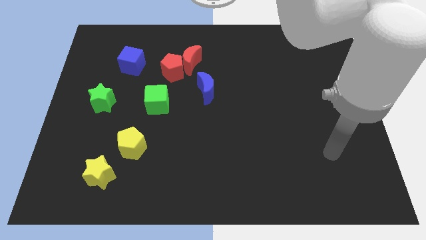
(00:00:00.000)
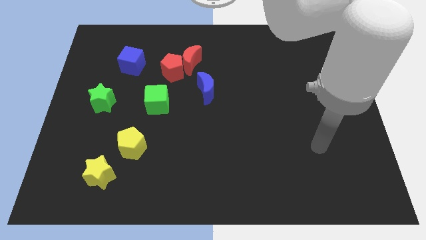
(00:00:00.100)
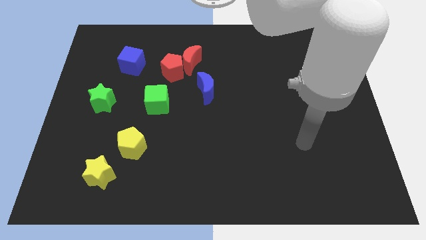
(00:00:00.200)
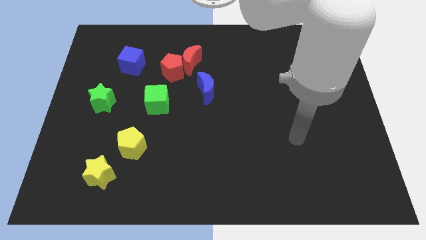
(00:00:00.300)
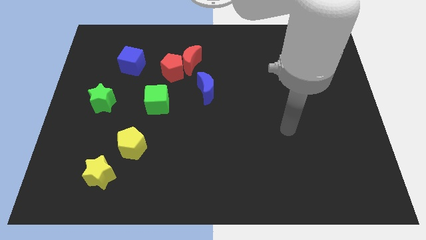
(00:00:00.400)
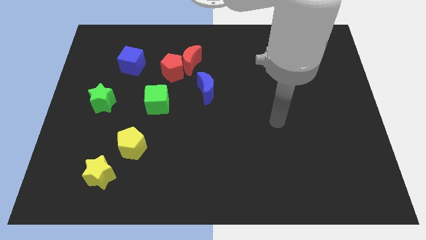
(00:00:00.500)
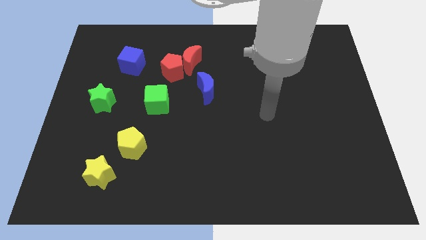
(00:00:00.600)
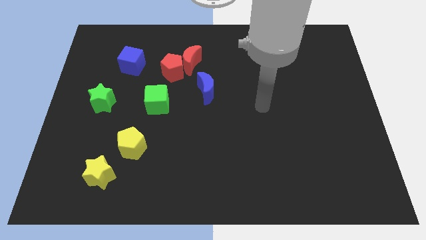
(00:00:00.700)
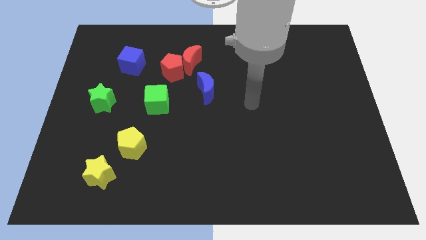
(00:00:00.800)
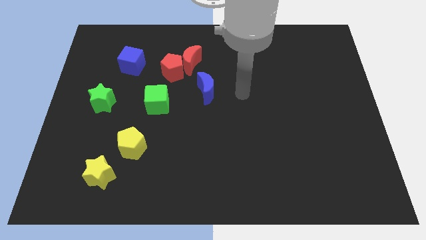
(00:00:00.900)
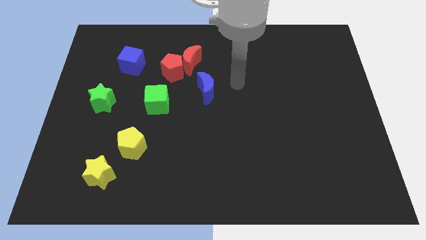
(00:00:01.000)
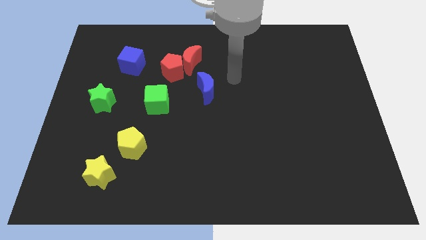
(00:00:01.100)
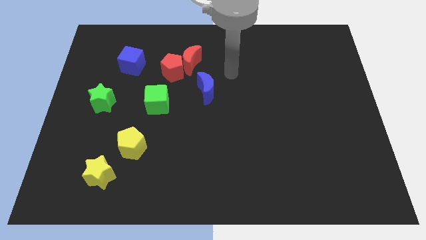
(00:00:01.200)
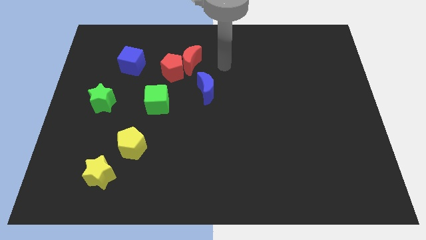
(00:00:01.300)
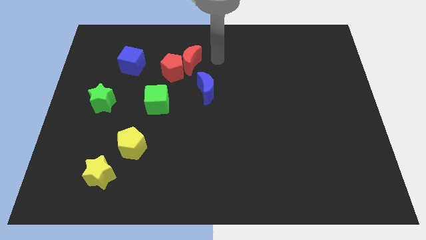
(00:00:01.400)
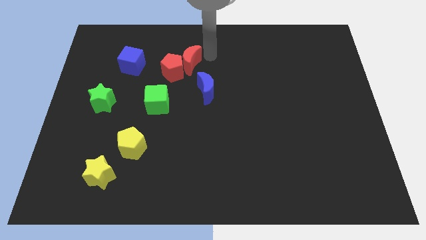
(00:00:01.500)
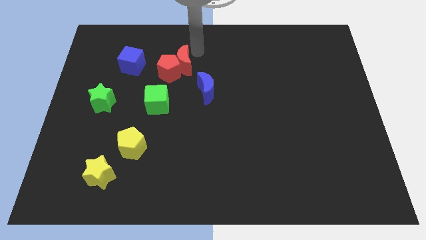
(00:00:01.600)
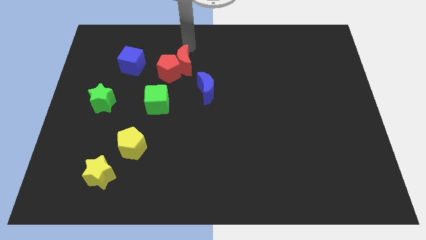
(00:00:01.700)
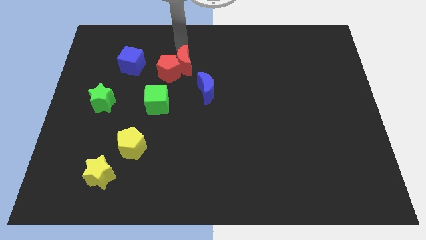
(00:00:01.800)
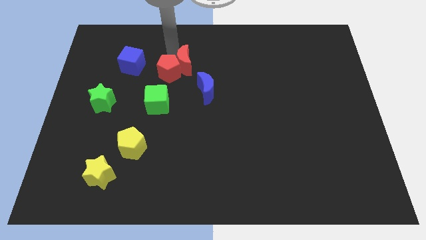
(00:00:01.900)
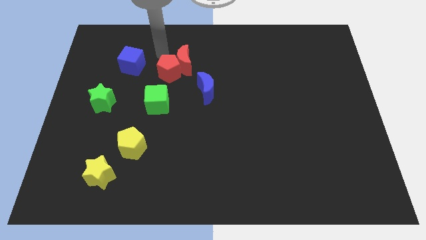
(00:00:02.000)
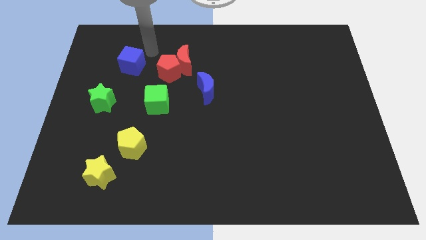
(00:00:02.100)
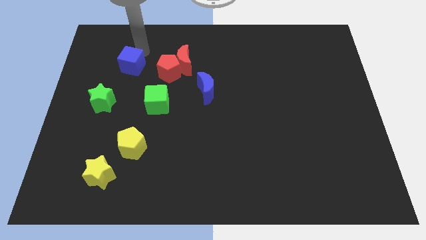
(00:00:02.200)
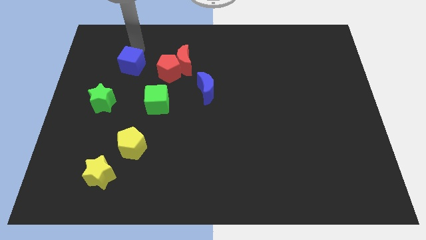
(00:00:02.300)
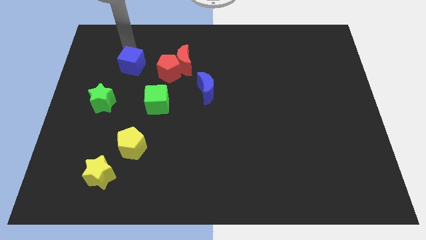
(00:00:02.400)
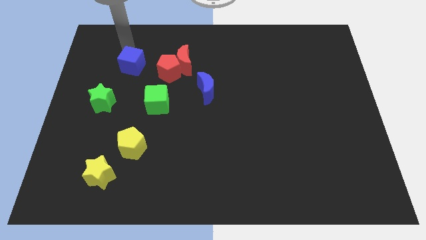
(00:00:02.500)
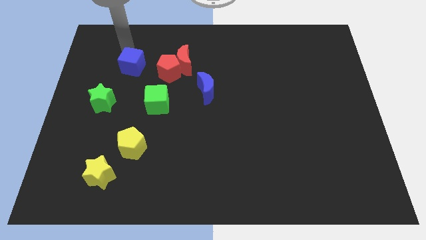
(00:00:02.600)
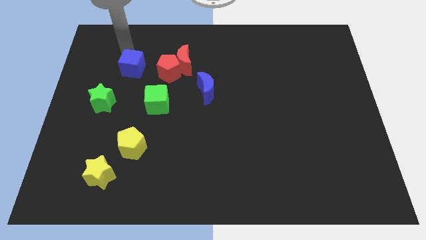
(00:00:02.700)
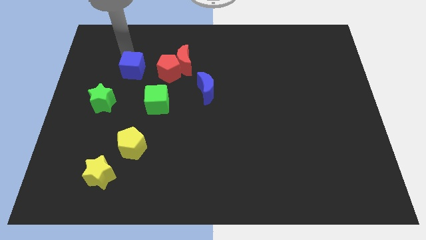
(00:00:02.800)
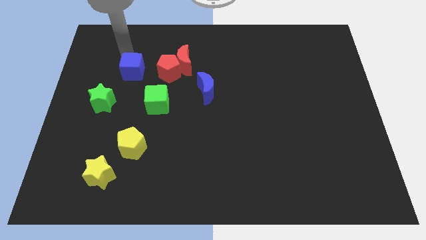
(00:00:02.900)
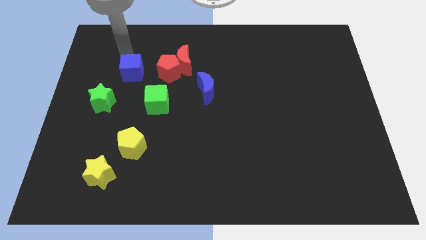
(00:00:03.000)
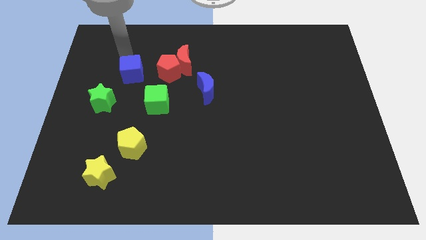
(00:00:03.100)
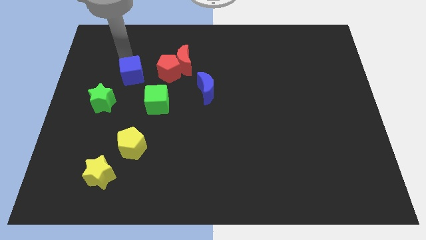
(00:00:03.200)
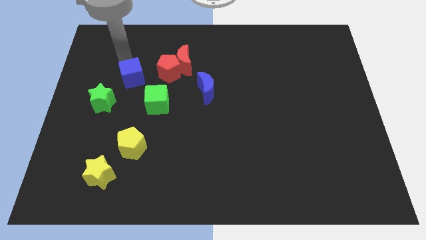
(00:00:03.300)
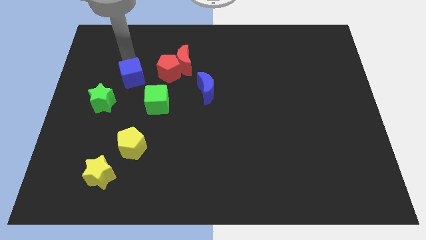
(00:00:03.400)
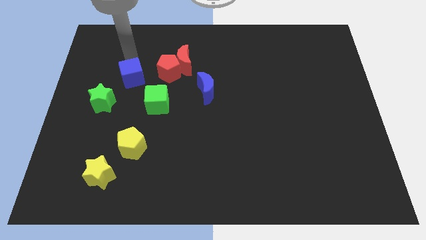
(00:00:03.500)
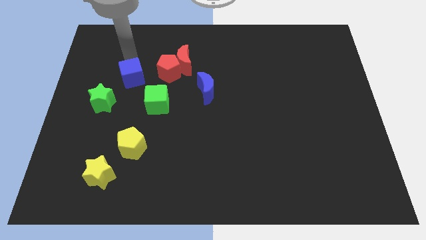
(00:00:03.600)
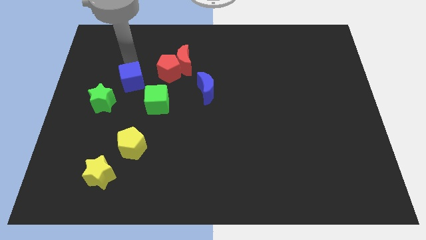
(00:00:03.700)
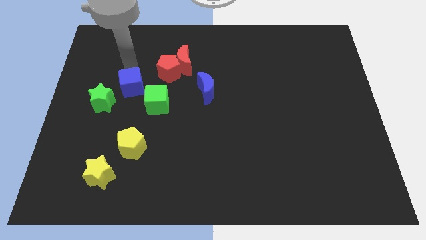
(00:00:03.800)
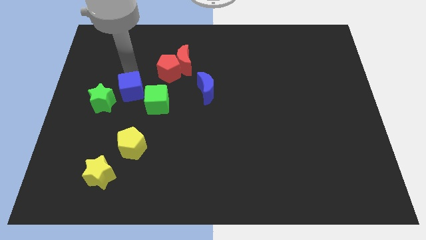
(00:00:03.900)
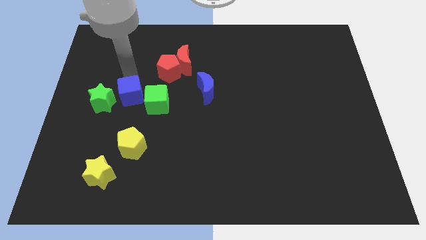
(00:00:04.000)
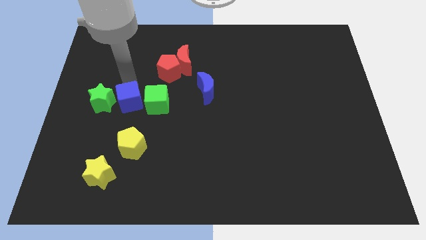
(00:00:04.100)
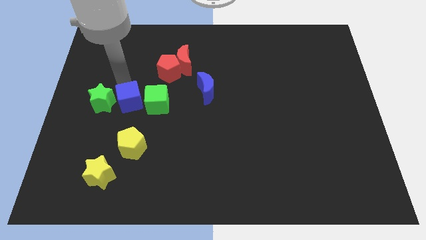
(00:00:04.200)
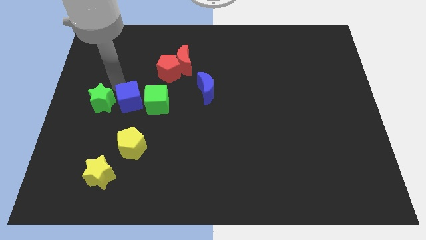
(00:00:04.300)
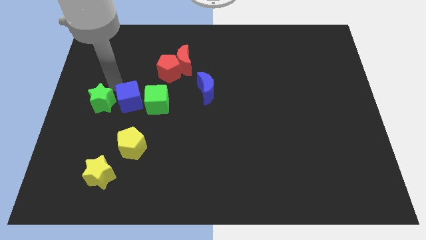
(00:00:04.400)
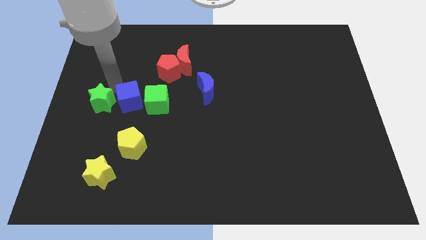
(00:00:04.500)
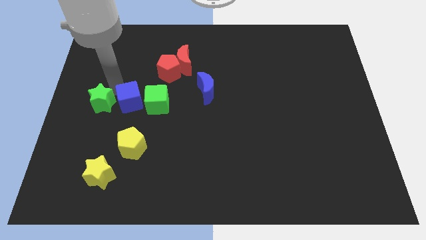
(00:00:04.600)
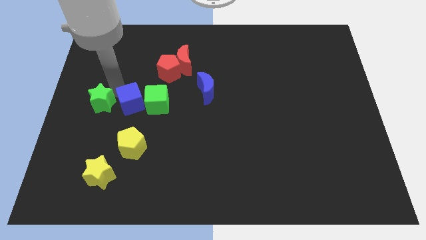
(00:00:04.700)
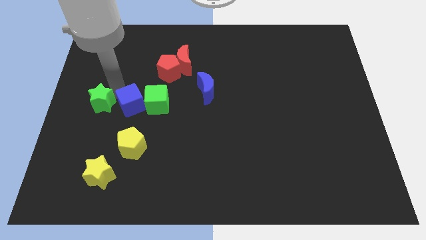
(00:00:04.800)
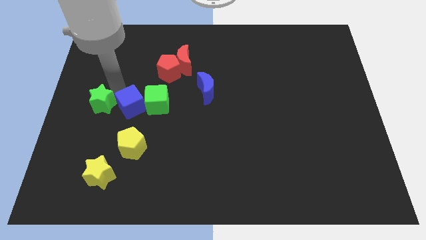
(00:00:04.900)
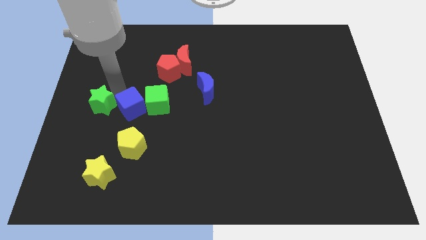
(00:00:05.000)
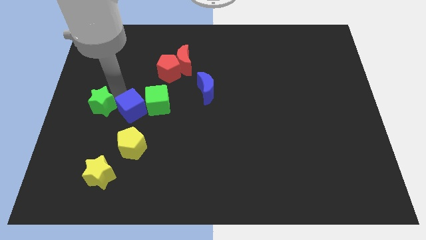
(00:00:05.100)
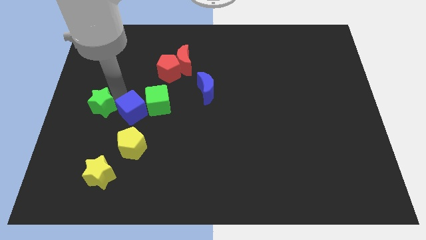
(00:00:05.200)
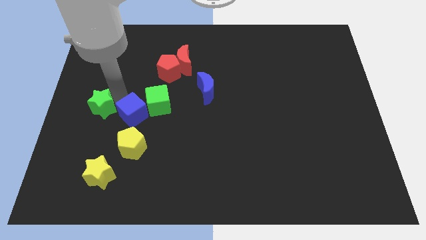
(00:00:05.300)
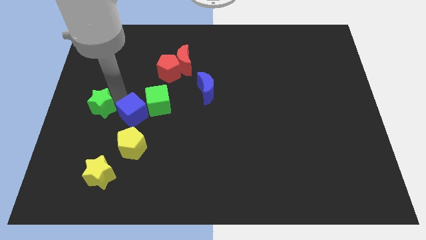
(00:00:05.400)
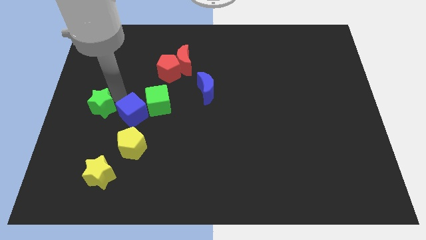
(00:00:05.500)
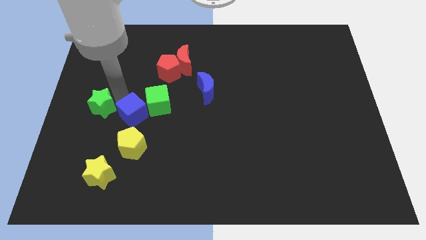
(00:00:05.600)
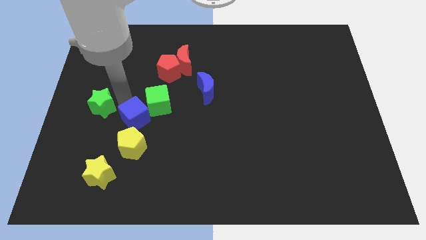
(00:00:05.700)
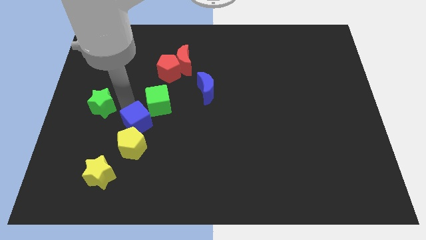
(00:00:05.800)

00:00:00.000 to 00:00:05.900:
push the blue cube below the green cube

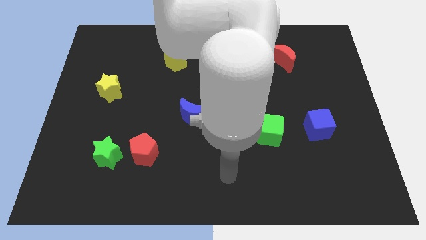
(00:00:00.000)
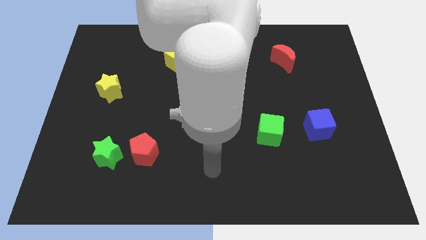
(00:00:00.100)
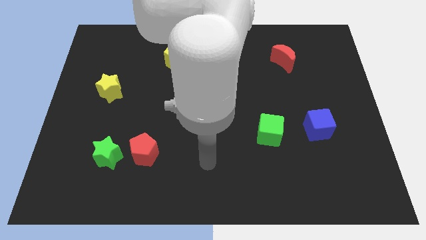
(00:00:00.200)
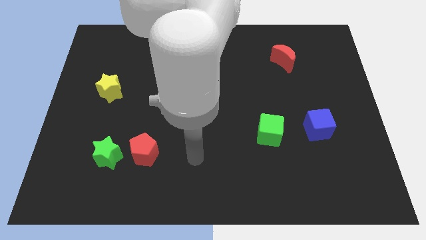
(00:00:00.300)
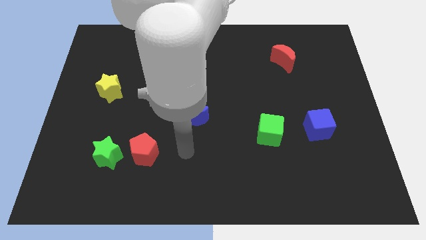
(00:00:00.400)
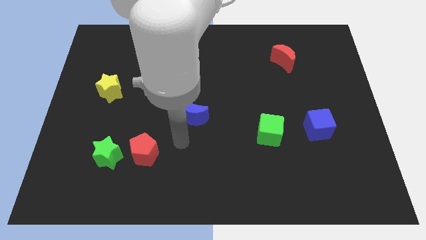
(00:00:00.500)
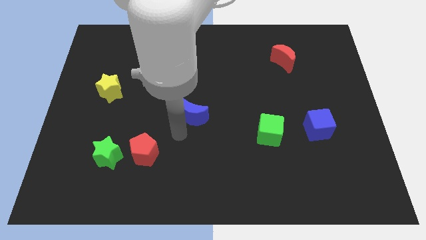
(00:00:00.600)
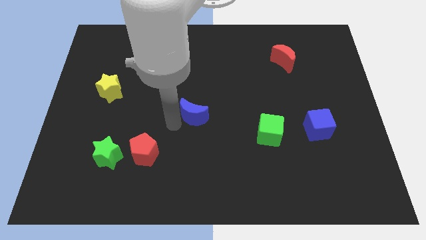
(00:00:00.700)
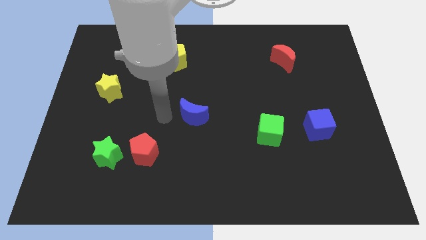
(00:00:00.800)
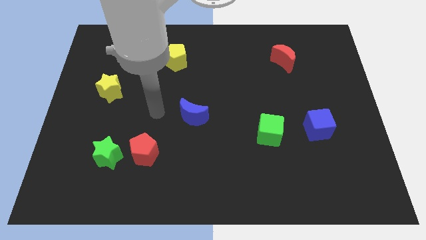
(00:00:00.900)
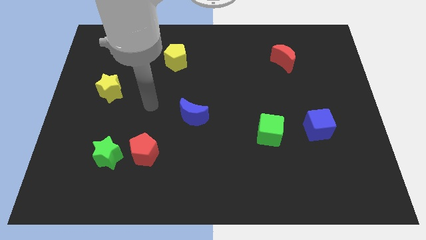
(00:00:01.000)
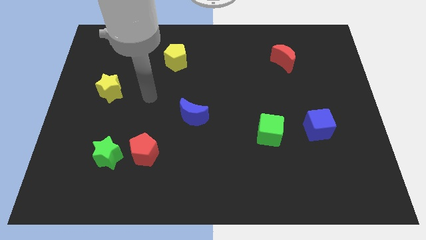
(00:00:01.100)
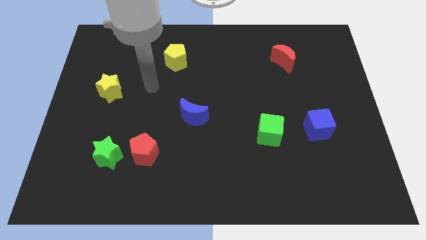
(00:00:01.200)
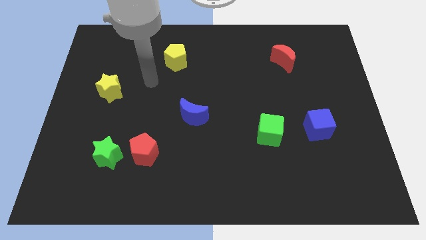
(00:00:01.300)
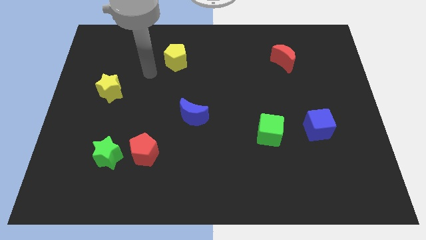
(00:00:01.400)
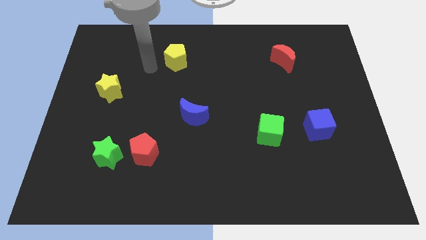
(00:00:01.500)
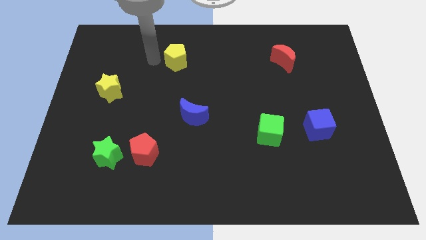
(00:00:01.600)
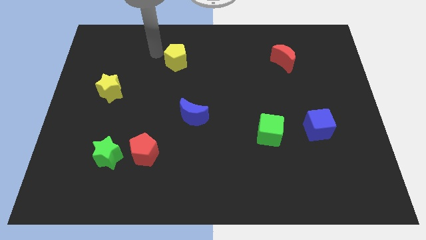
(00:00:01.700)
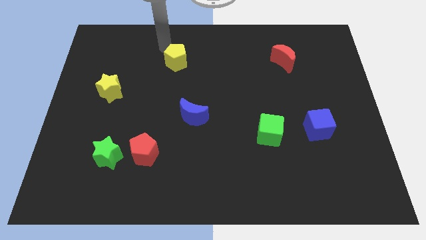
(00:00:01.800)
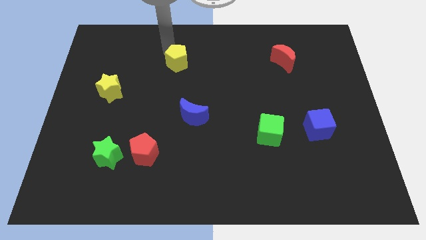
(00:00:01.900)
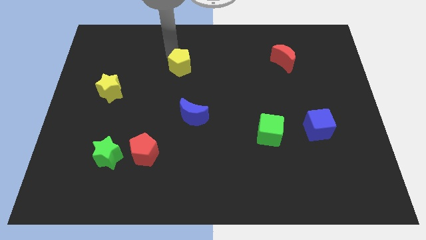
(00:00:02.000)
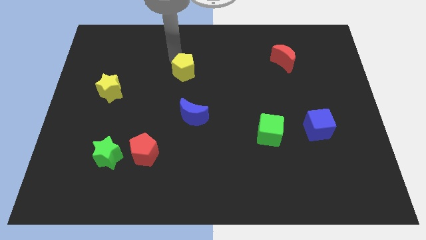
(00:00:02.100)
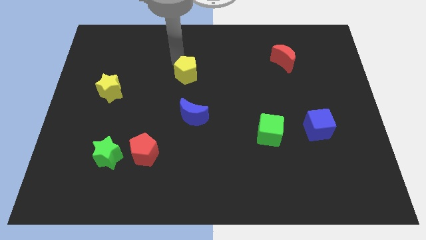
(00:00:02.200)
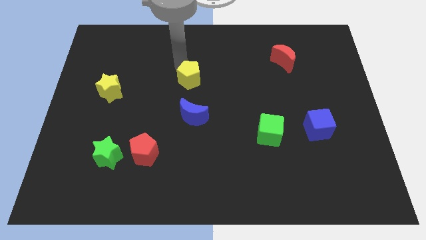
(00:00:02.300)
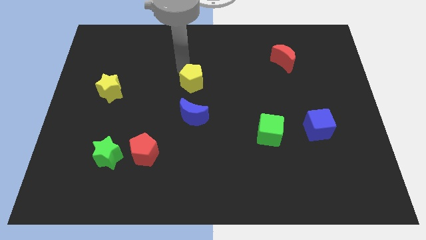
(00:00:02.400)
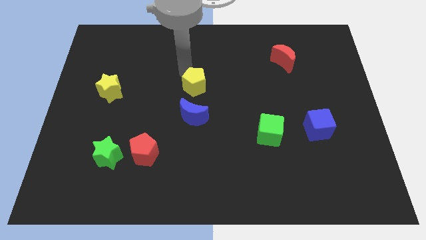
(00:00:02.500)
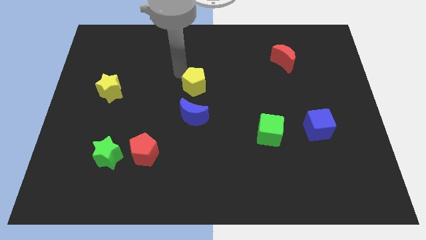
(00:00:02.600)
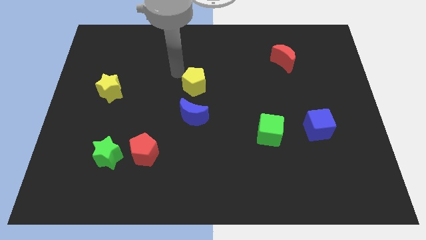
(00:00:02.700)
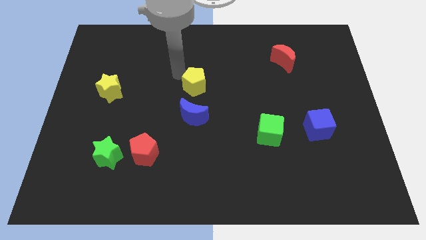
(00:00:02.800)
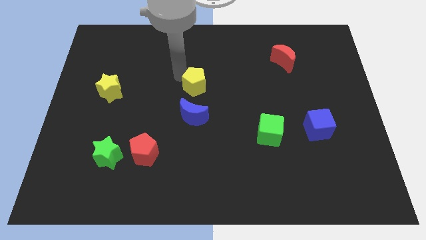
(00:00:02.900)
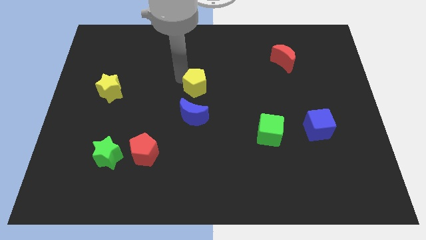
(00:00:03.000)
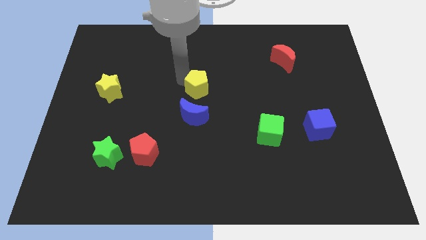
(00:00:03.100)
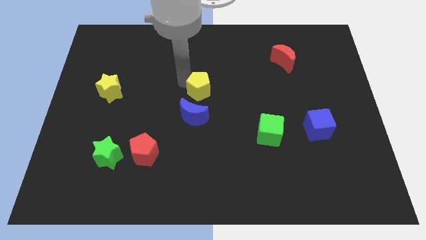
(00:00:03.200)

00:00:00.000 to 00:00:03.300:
put the yellow pentagon to the top right of the blue moon
